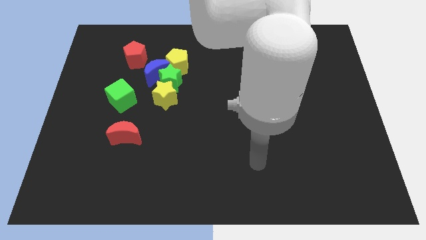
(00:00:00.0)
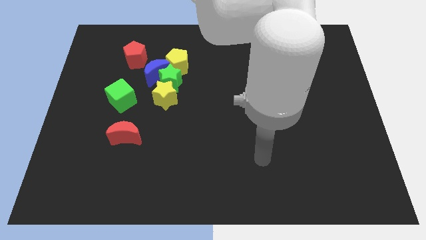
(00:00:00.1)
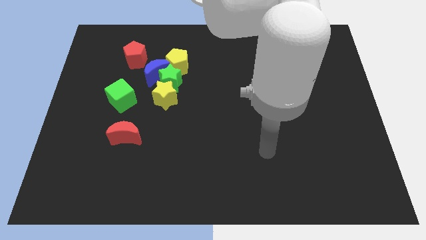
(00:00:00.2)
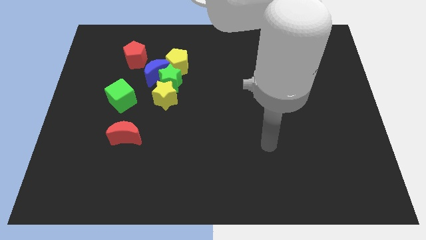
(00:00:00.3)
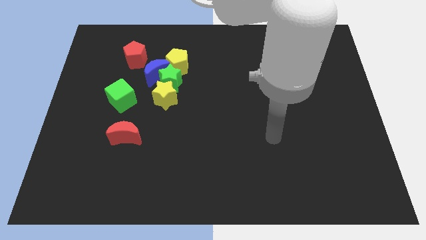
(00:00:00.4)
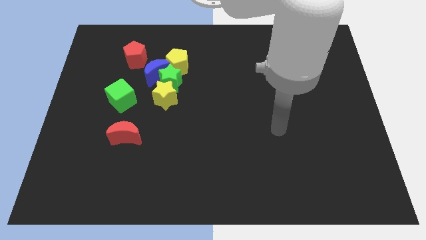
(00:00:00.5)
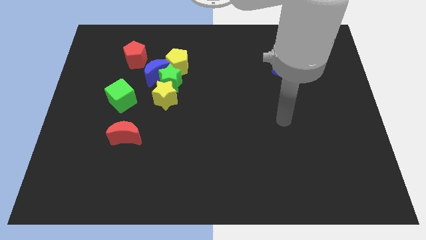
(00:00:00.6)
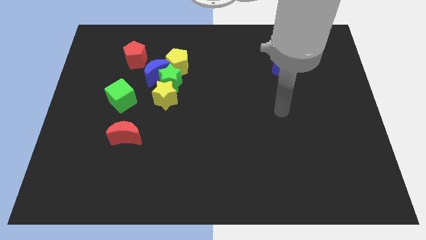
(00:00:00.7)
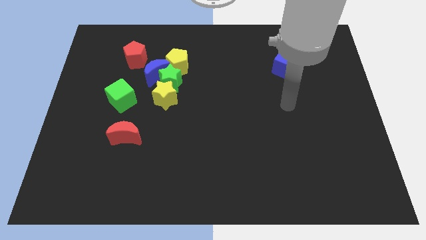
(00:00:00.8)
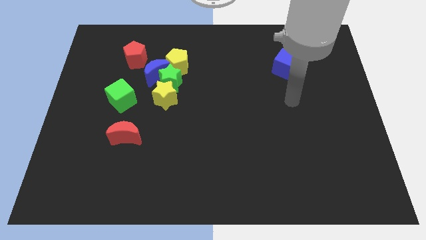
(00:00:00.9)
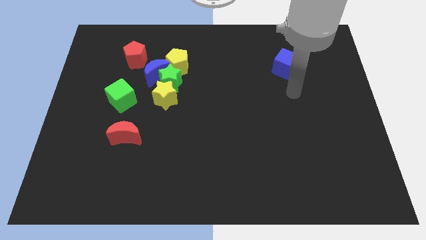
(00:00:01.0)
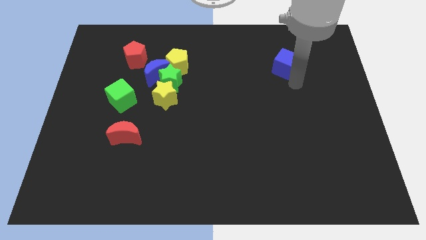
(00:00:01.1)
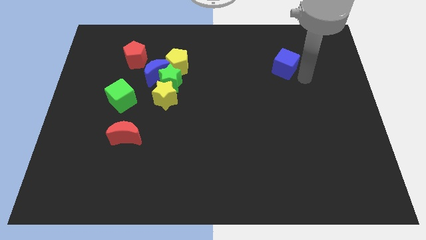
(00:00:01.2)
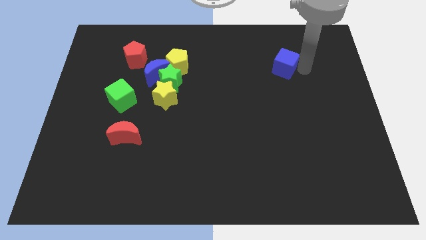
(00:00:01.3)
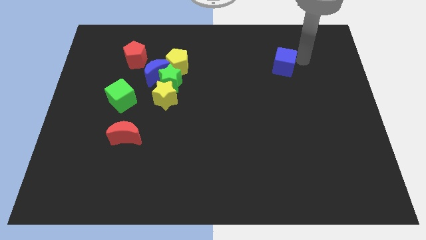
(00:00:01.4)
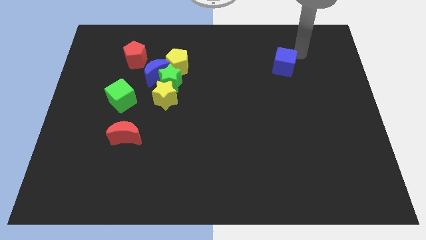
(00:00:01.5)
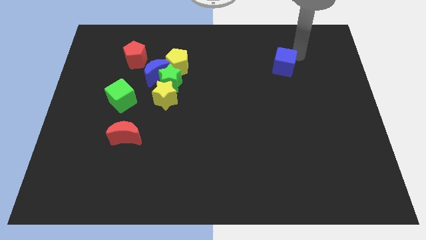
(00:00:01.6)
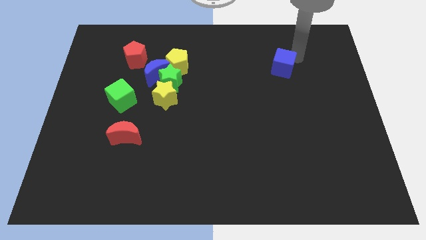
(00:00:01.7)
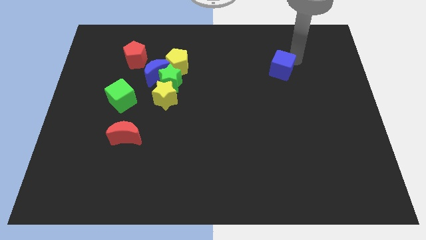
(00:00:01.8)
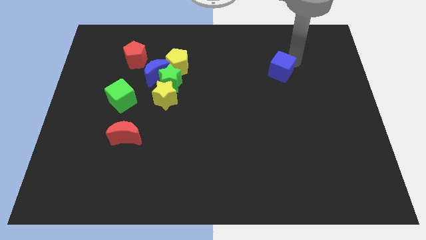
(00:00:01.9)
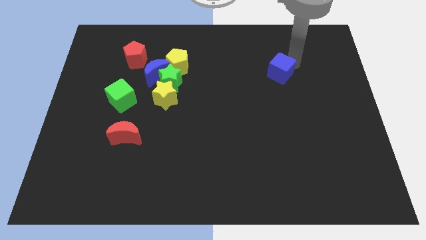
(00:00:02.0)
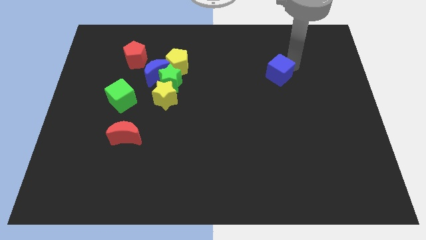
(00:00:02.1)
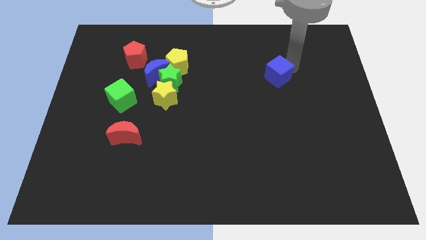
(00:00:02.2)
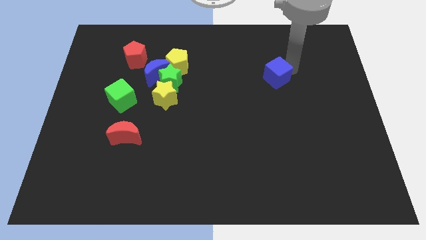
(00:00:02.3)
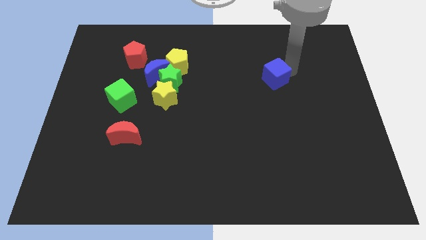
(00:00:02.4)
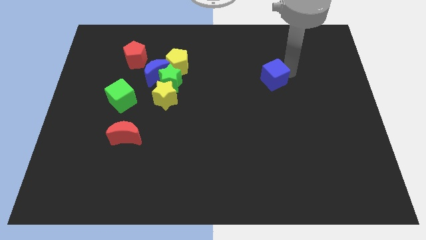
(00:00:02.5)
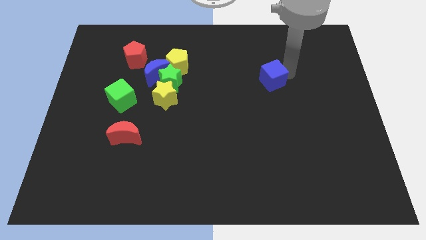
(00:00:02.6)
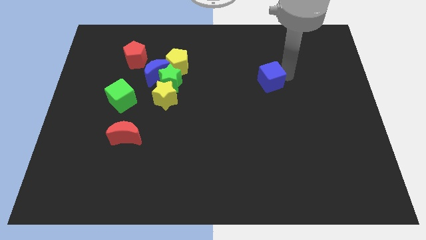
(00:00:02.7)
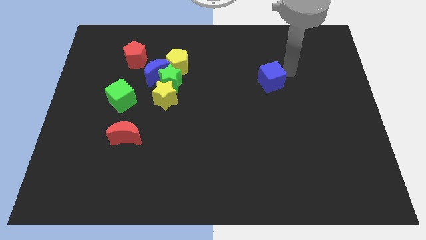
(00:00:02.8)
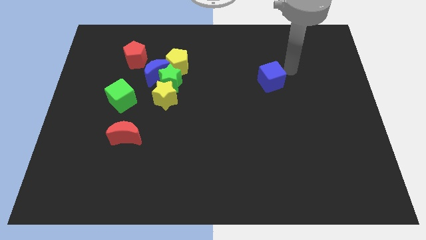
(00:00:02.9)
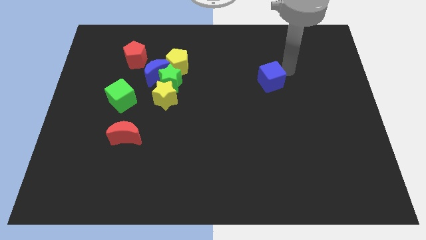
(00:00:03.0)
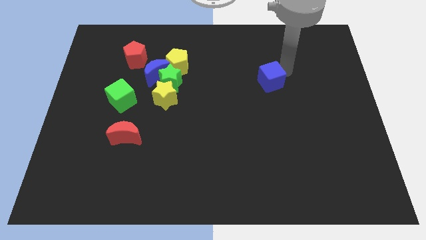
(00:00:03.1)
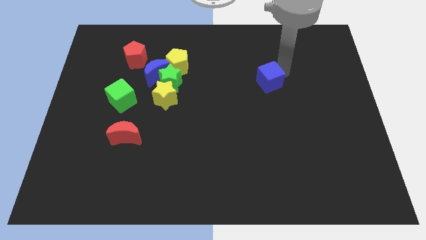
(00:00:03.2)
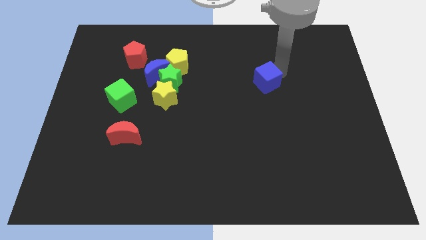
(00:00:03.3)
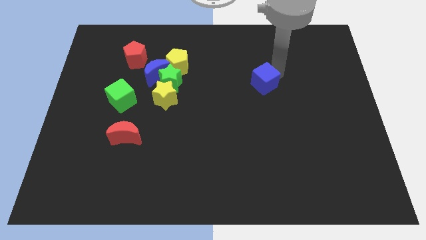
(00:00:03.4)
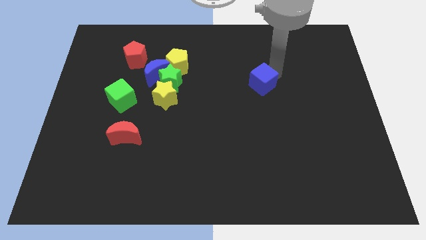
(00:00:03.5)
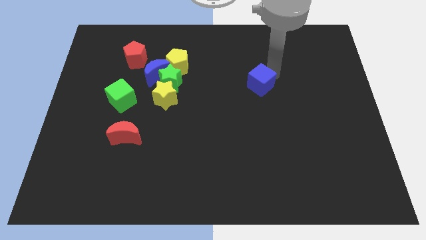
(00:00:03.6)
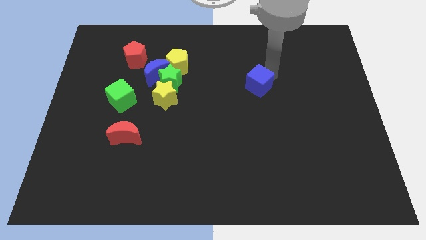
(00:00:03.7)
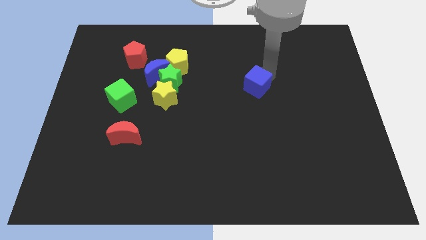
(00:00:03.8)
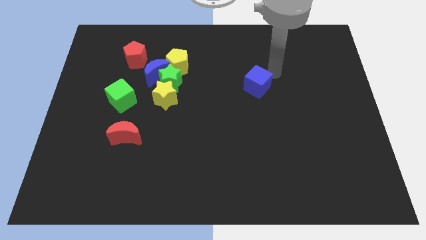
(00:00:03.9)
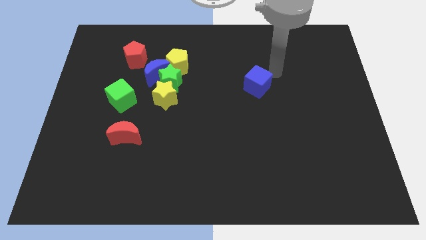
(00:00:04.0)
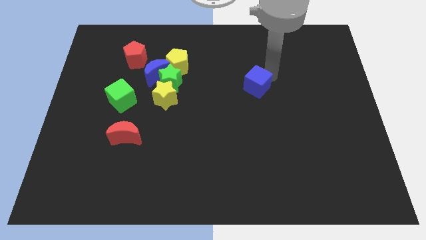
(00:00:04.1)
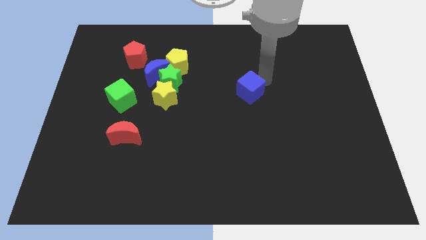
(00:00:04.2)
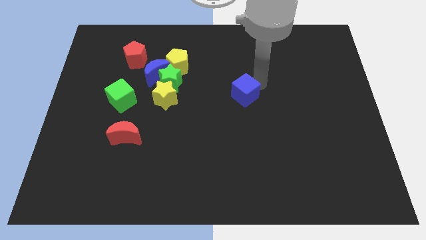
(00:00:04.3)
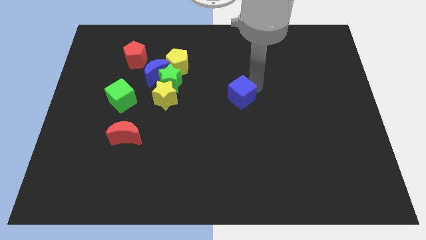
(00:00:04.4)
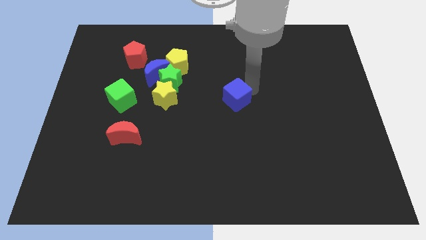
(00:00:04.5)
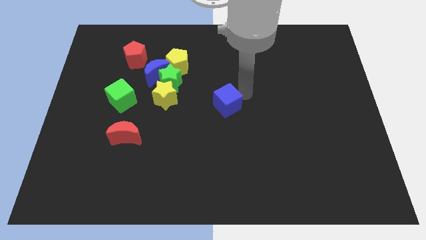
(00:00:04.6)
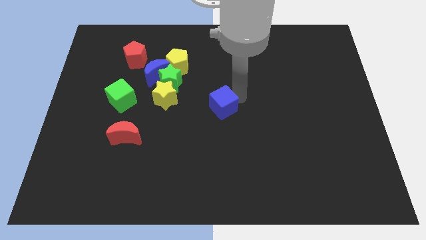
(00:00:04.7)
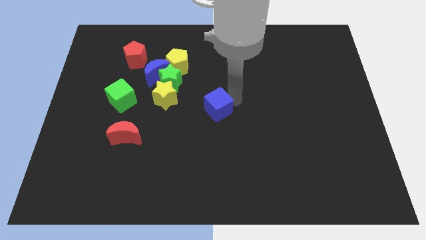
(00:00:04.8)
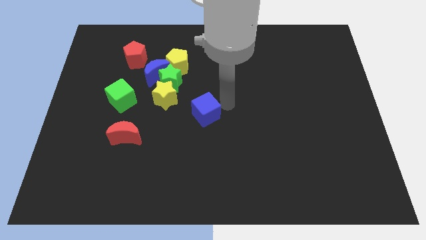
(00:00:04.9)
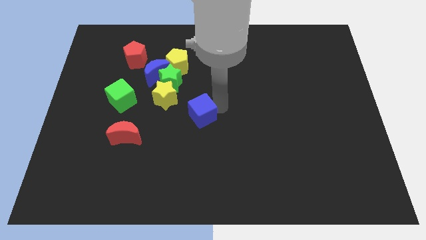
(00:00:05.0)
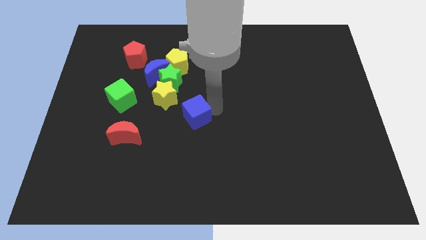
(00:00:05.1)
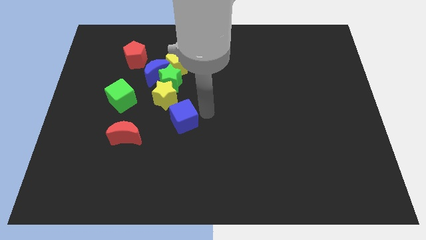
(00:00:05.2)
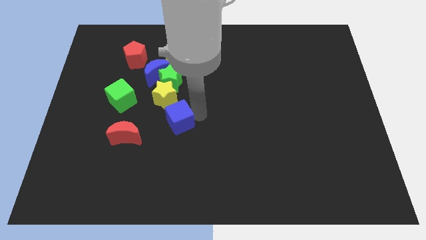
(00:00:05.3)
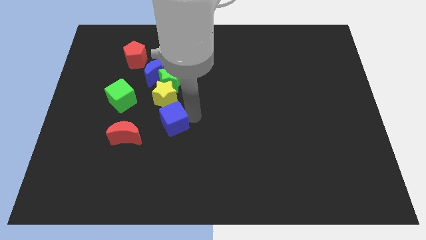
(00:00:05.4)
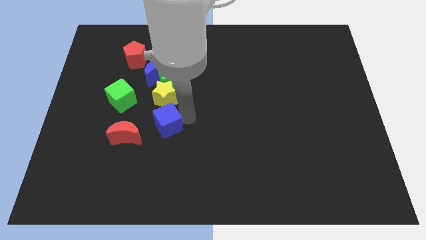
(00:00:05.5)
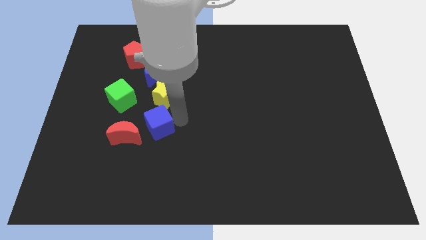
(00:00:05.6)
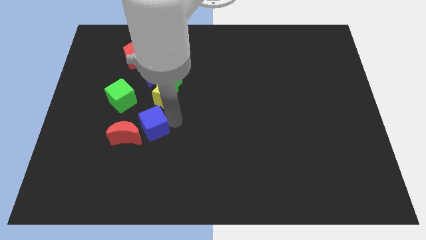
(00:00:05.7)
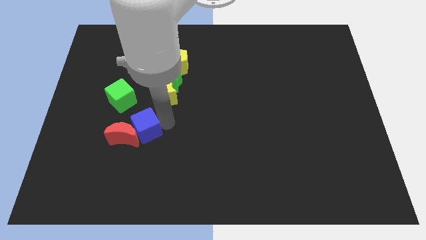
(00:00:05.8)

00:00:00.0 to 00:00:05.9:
slide the blue cube close to the red moon

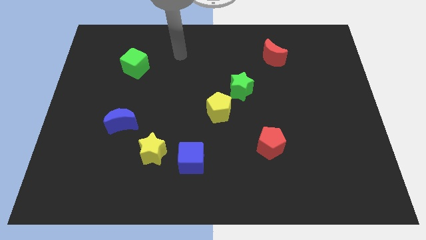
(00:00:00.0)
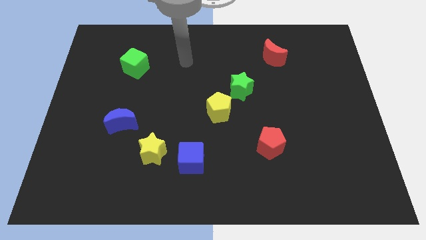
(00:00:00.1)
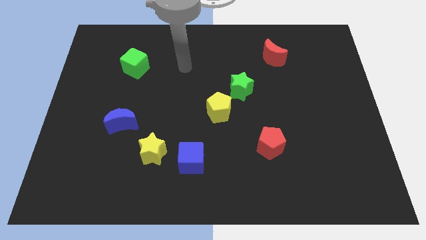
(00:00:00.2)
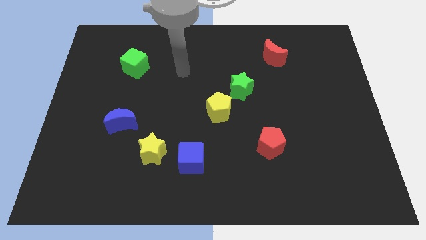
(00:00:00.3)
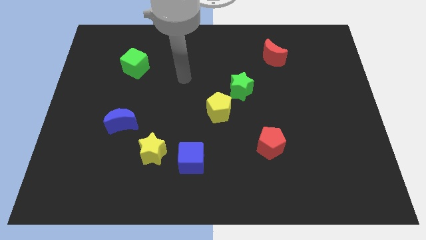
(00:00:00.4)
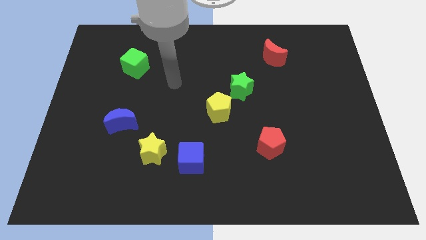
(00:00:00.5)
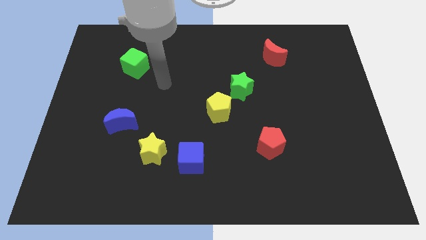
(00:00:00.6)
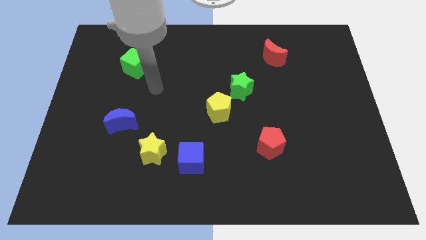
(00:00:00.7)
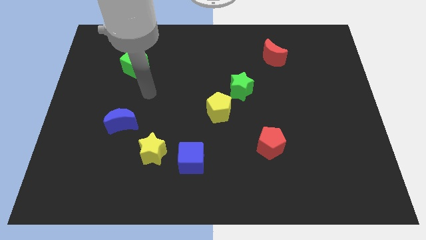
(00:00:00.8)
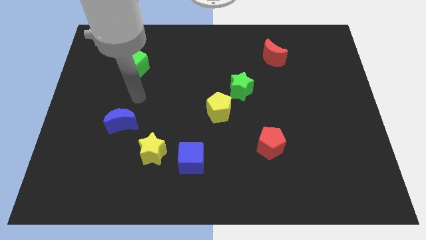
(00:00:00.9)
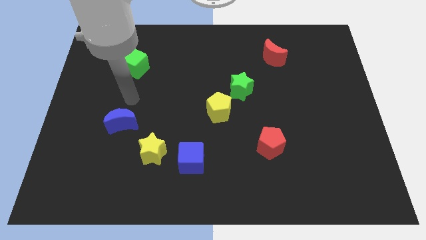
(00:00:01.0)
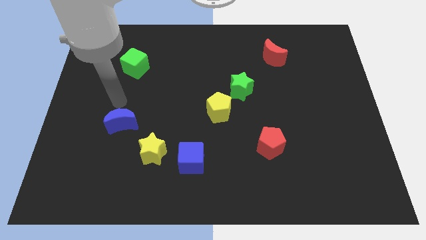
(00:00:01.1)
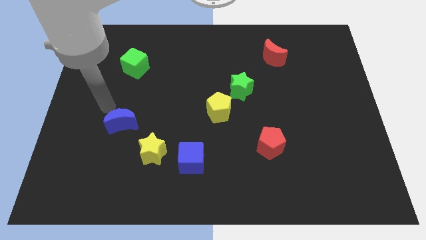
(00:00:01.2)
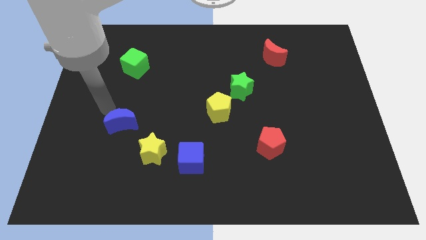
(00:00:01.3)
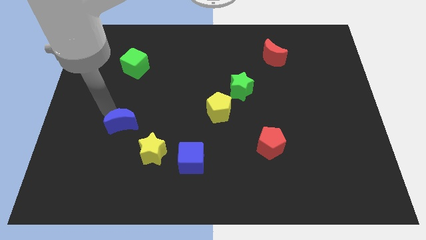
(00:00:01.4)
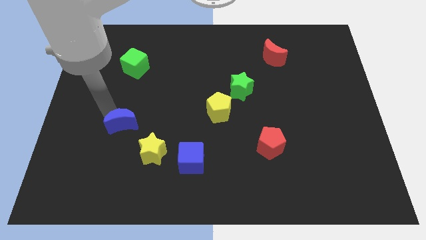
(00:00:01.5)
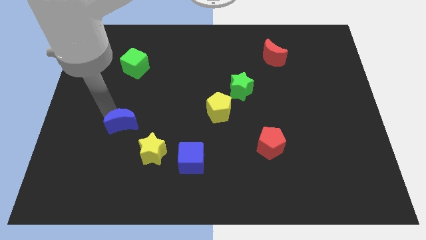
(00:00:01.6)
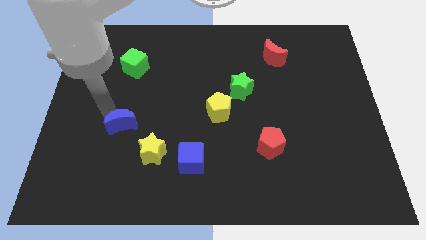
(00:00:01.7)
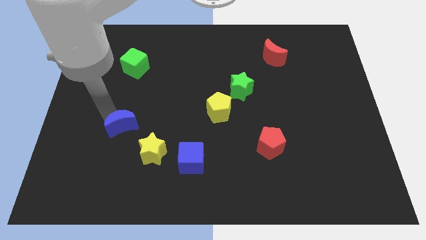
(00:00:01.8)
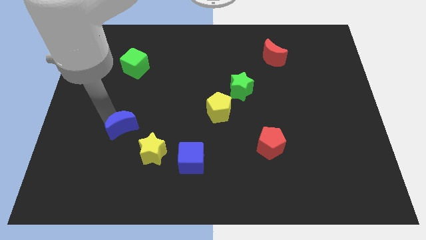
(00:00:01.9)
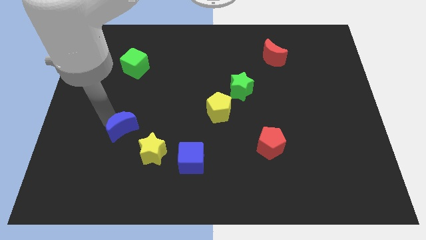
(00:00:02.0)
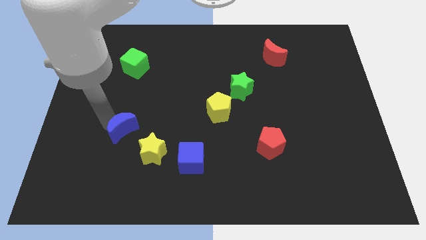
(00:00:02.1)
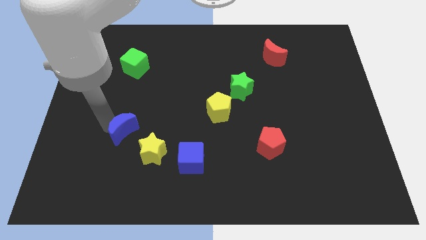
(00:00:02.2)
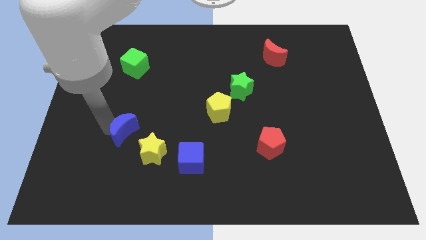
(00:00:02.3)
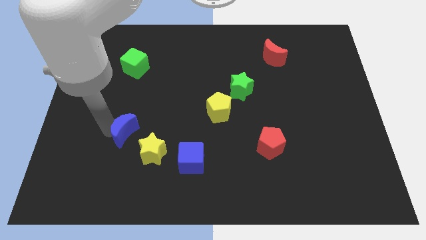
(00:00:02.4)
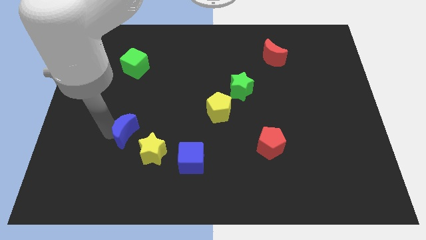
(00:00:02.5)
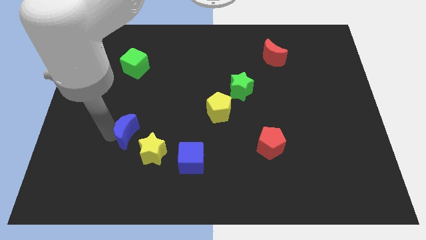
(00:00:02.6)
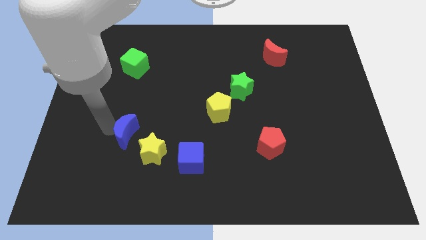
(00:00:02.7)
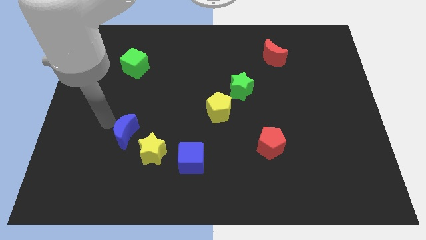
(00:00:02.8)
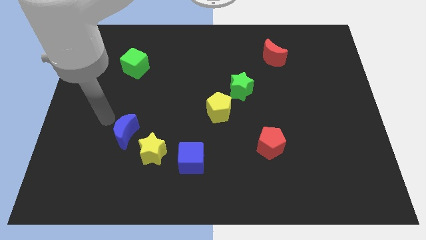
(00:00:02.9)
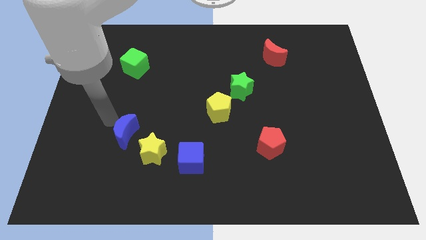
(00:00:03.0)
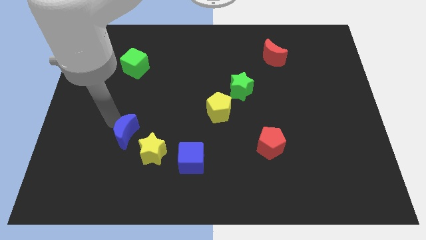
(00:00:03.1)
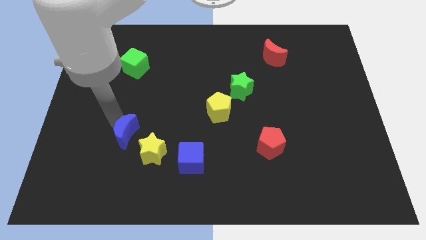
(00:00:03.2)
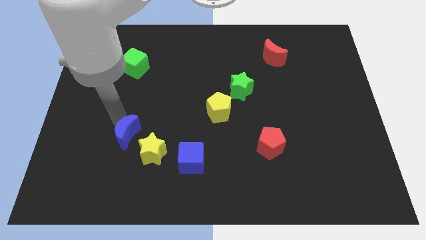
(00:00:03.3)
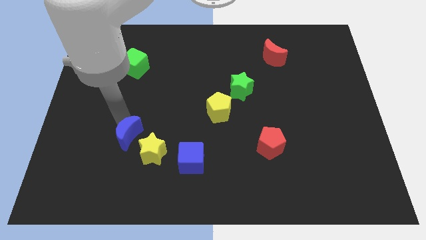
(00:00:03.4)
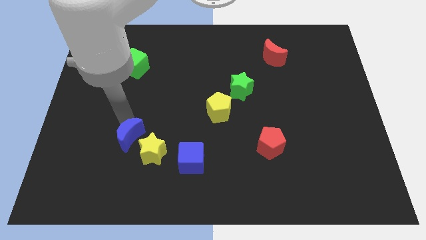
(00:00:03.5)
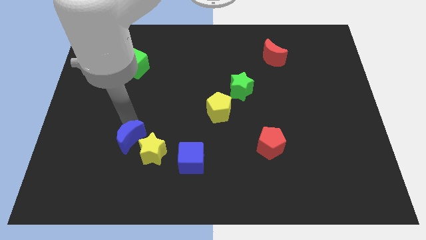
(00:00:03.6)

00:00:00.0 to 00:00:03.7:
push the blue moon towards the yellow star
